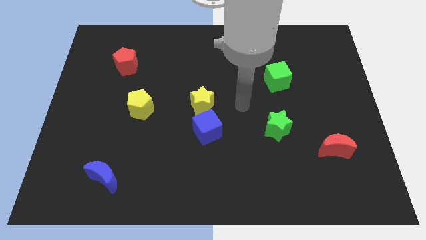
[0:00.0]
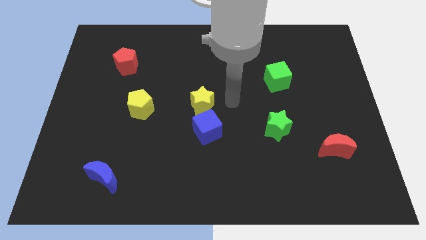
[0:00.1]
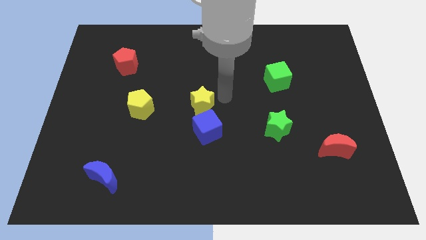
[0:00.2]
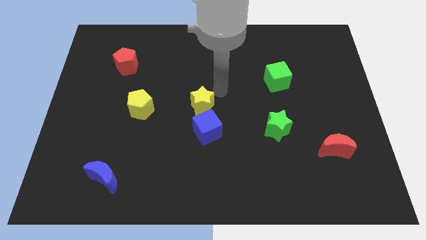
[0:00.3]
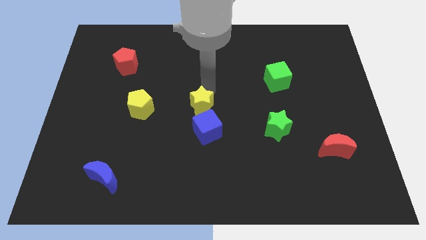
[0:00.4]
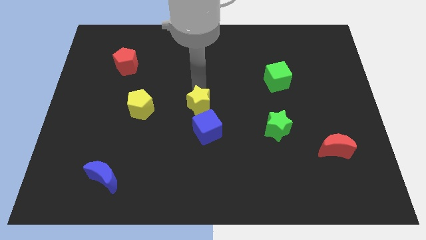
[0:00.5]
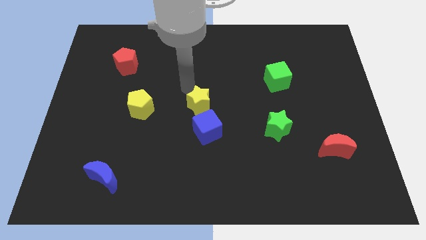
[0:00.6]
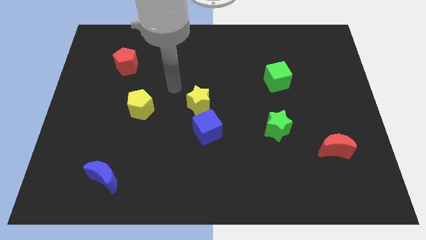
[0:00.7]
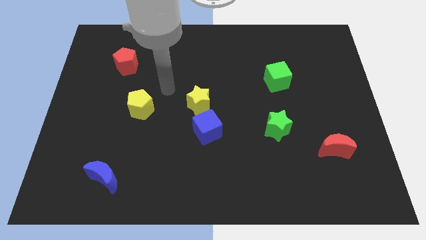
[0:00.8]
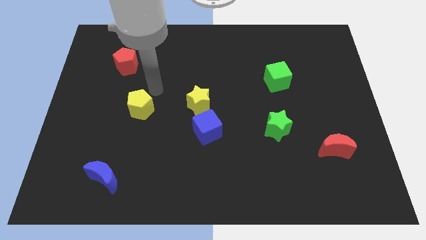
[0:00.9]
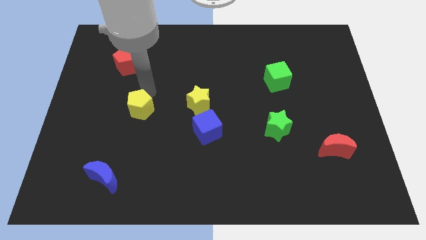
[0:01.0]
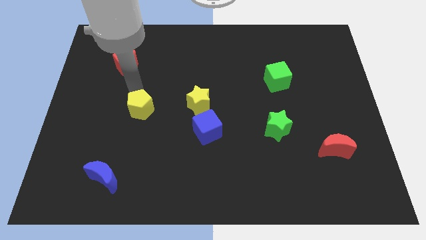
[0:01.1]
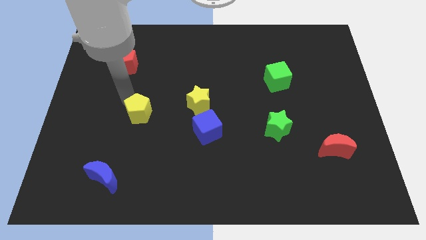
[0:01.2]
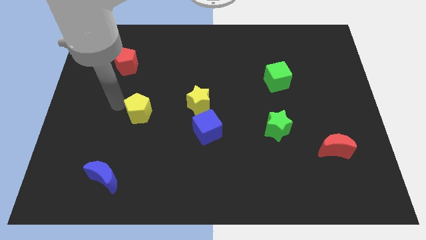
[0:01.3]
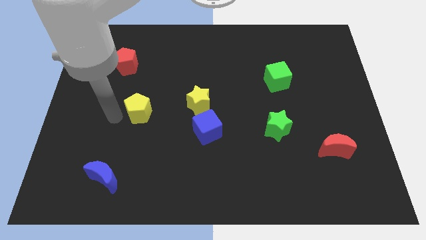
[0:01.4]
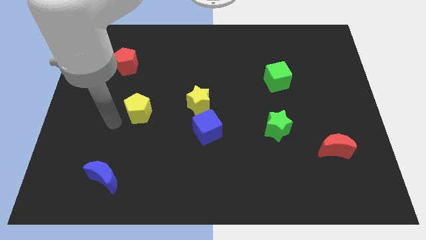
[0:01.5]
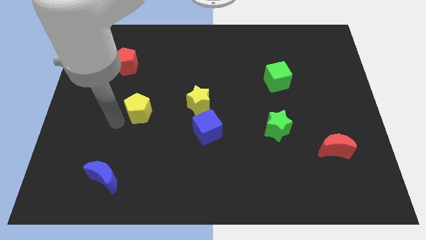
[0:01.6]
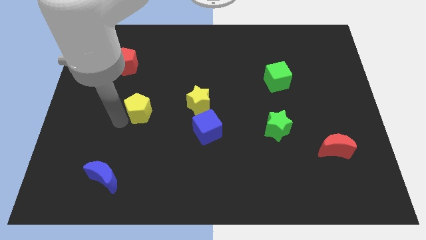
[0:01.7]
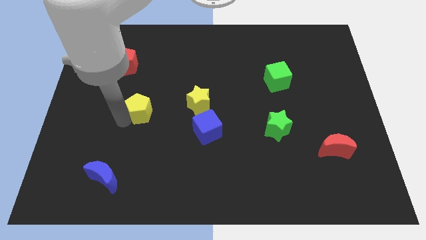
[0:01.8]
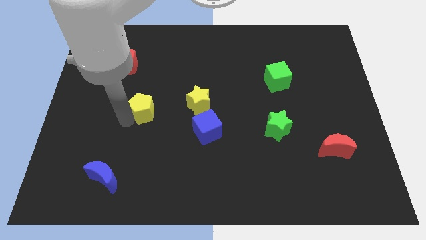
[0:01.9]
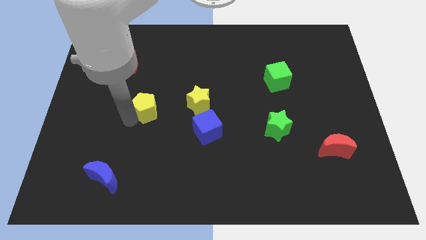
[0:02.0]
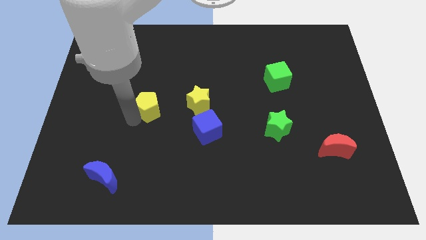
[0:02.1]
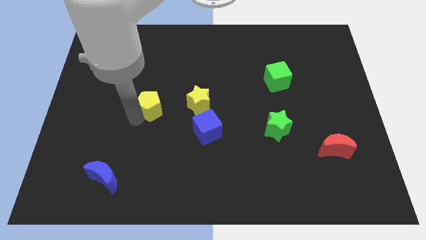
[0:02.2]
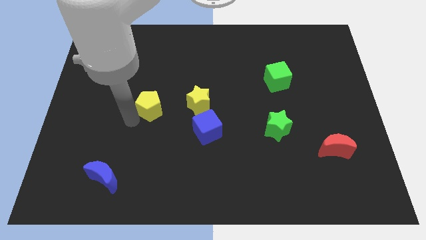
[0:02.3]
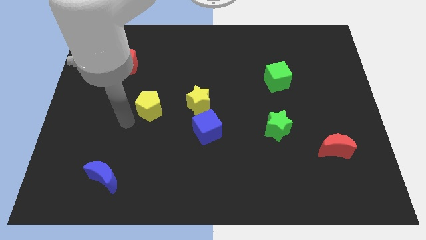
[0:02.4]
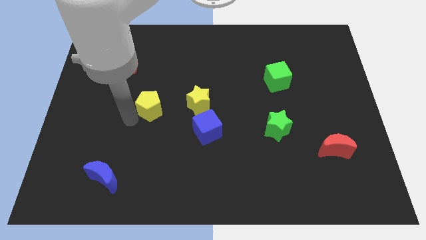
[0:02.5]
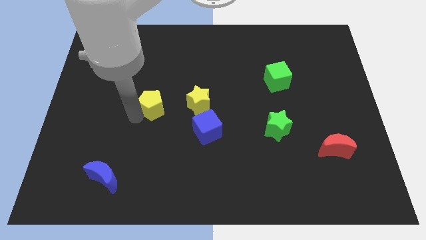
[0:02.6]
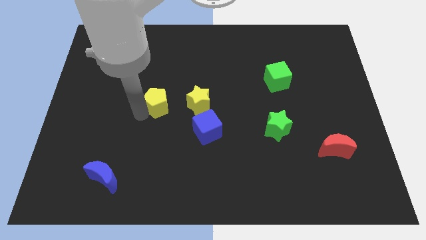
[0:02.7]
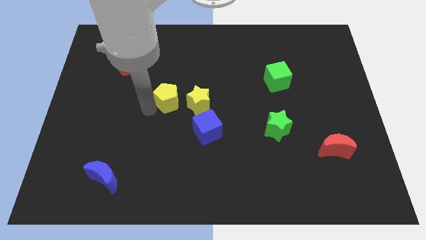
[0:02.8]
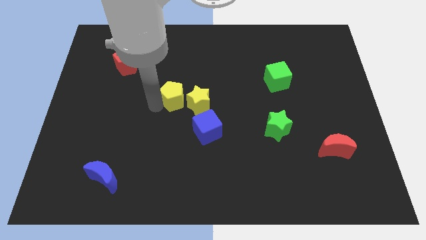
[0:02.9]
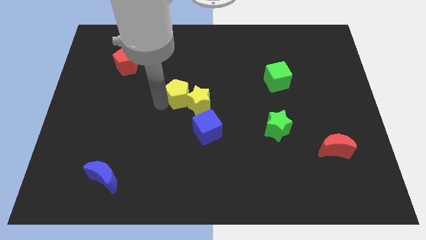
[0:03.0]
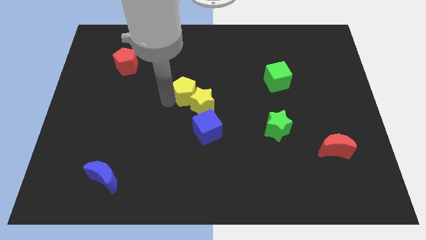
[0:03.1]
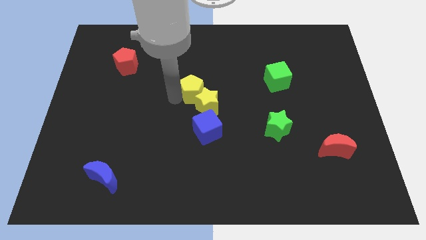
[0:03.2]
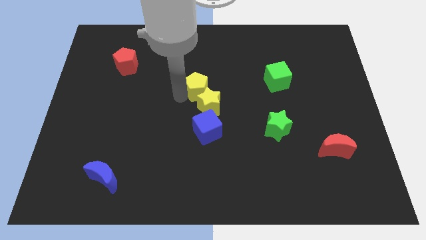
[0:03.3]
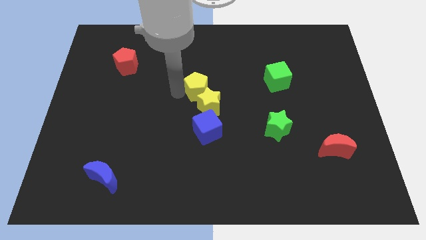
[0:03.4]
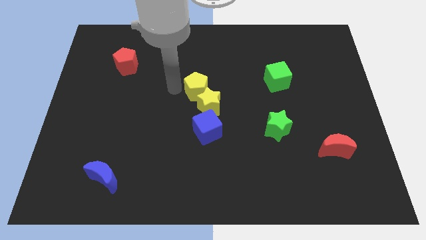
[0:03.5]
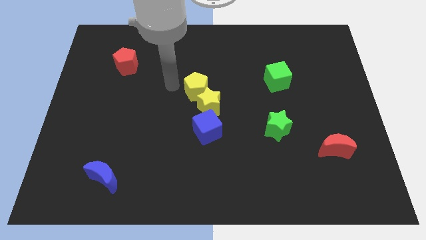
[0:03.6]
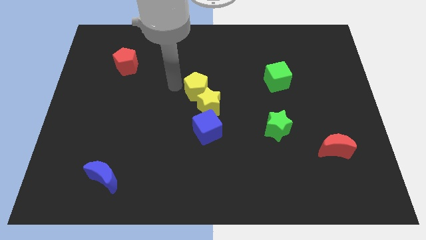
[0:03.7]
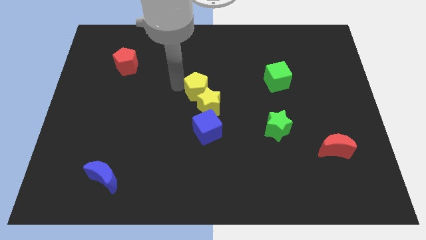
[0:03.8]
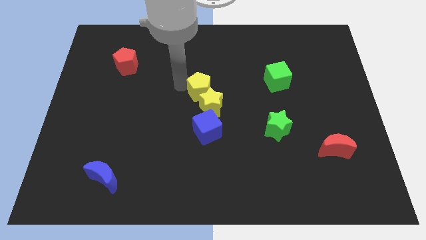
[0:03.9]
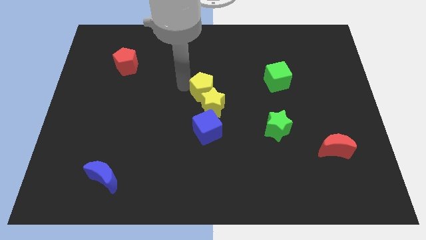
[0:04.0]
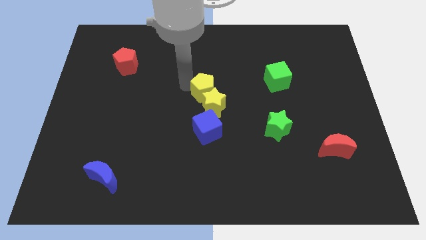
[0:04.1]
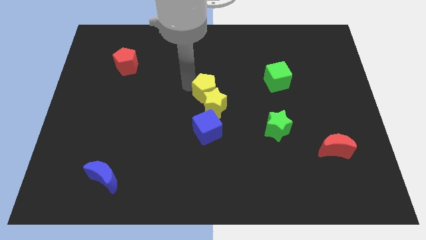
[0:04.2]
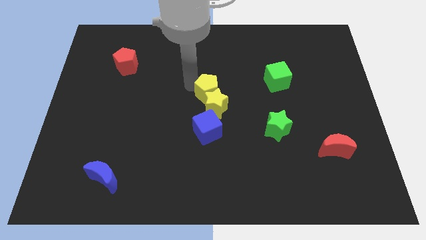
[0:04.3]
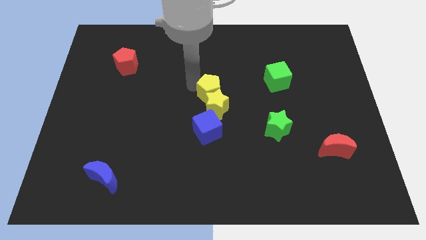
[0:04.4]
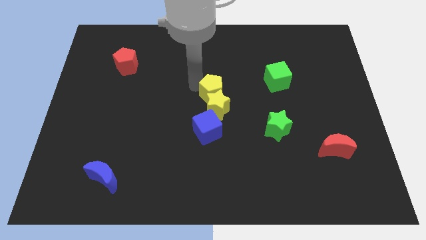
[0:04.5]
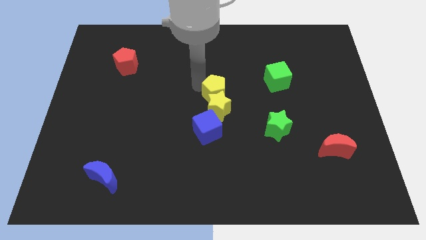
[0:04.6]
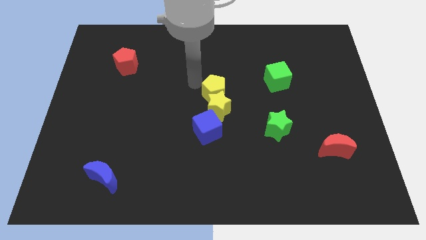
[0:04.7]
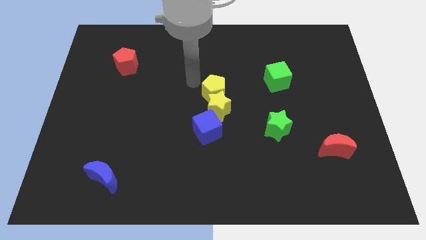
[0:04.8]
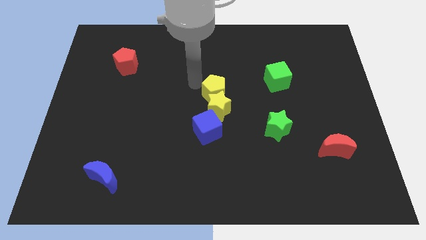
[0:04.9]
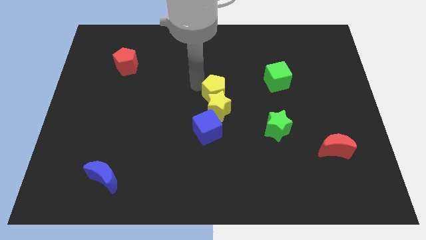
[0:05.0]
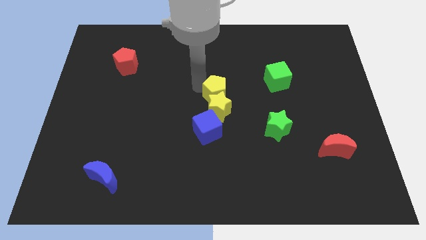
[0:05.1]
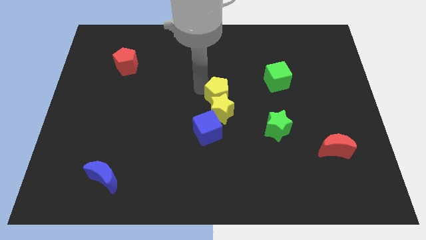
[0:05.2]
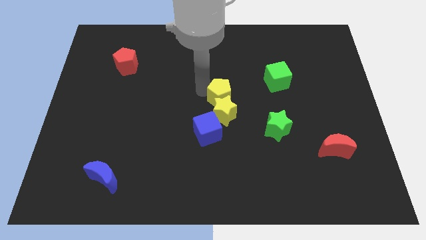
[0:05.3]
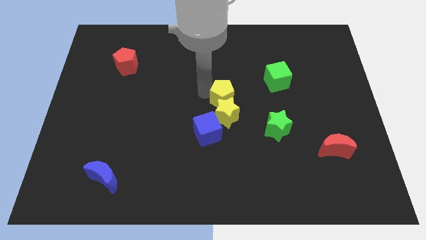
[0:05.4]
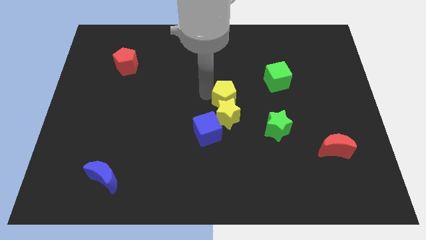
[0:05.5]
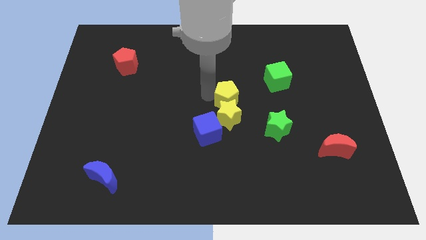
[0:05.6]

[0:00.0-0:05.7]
move the yellow pentagon to the right

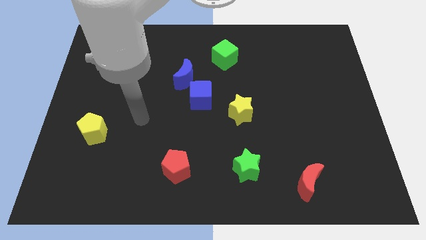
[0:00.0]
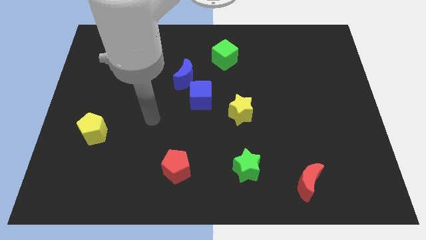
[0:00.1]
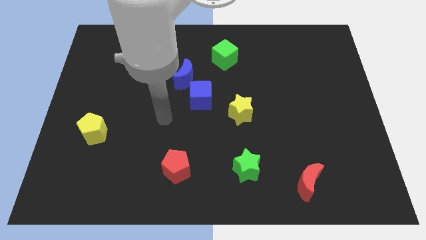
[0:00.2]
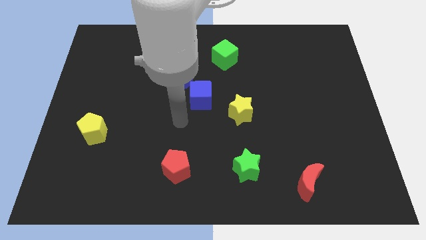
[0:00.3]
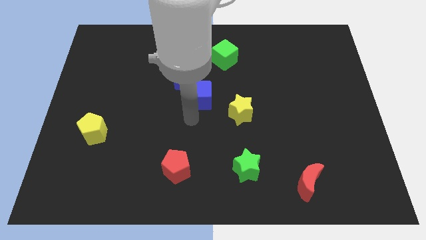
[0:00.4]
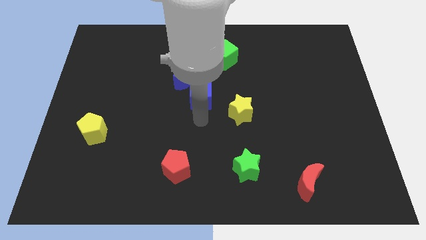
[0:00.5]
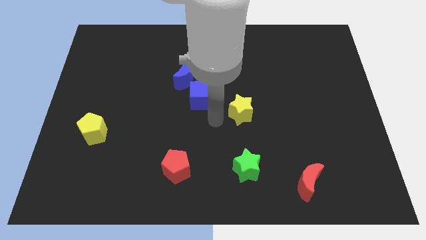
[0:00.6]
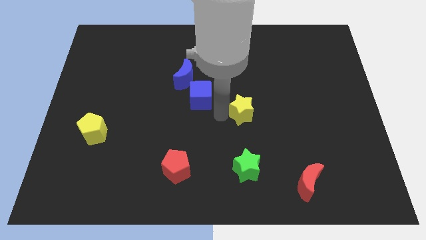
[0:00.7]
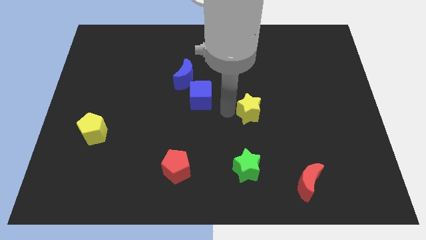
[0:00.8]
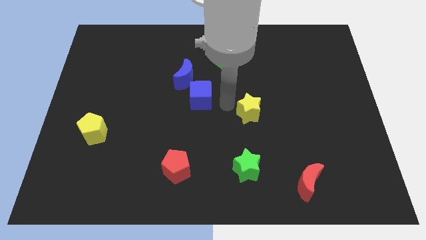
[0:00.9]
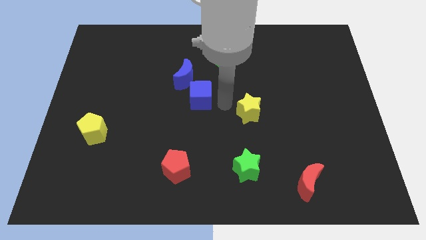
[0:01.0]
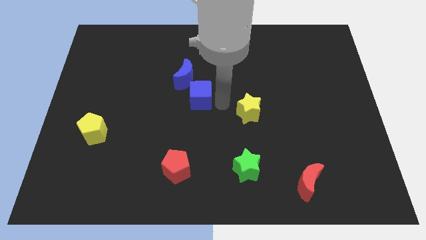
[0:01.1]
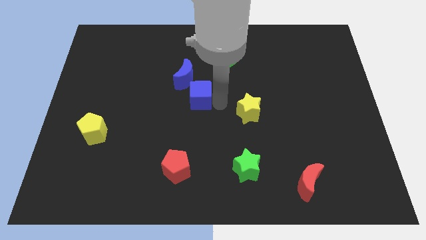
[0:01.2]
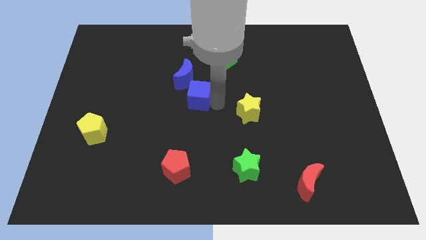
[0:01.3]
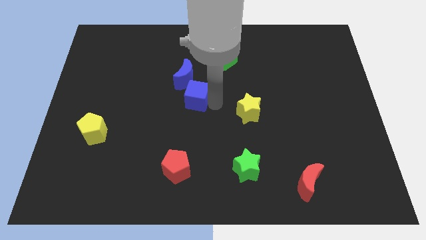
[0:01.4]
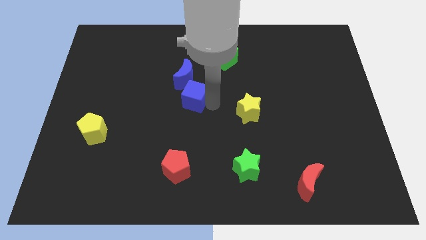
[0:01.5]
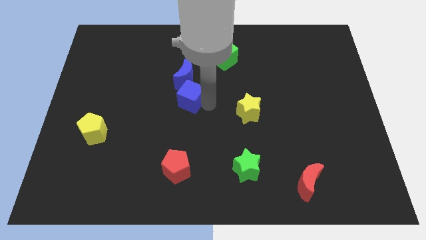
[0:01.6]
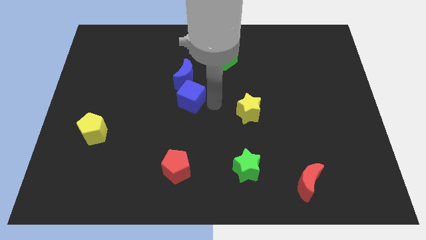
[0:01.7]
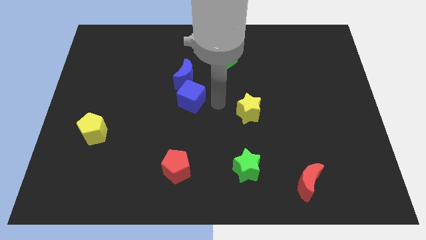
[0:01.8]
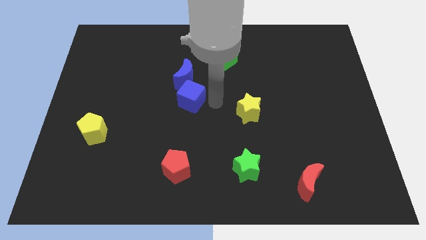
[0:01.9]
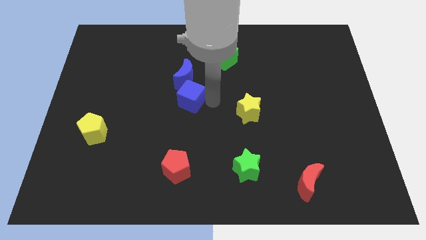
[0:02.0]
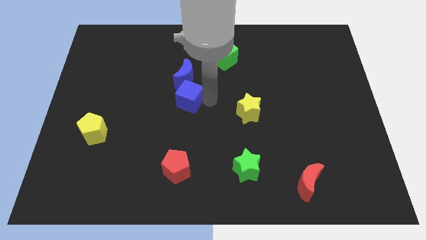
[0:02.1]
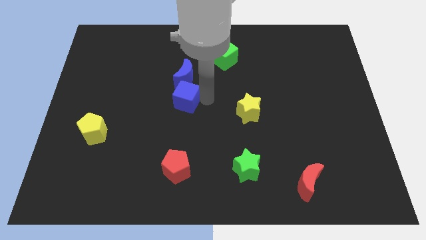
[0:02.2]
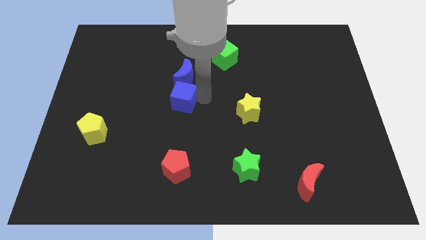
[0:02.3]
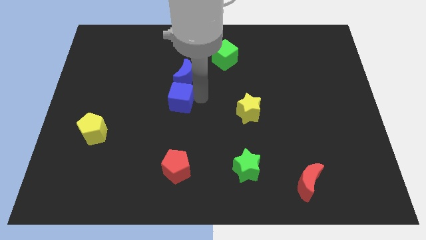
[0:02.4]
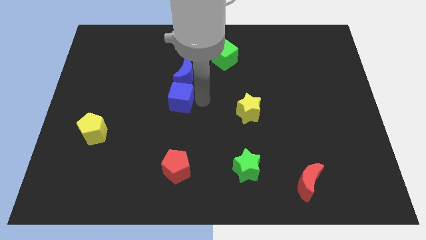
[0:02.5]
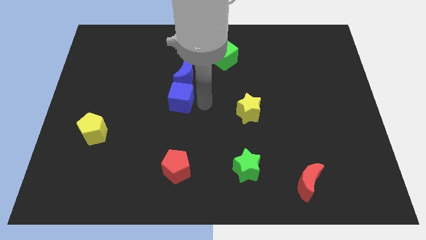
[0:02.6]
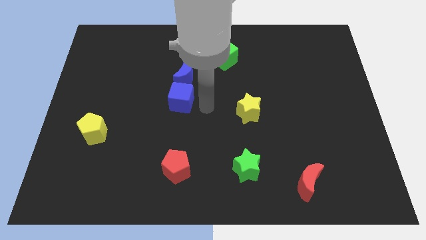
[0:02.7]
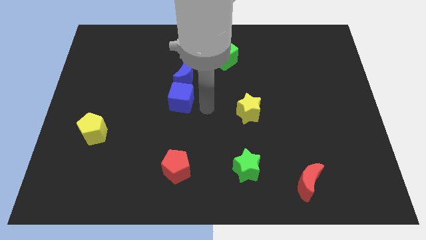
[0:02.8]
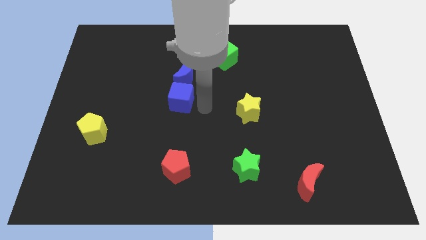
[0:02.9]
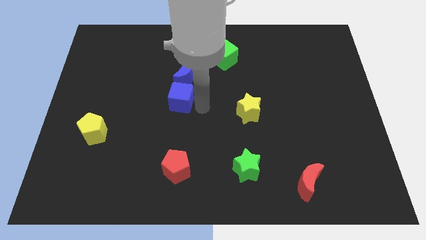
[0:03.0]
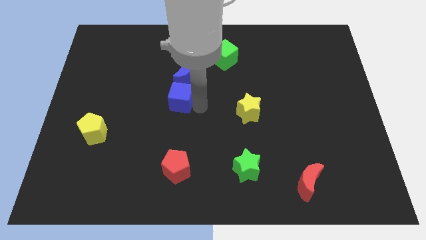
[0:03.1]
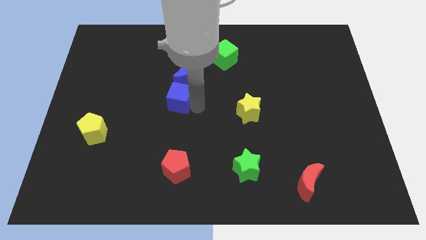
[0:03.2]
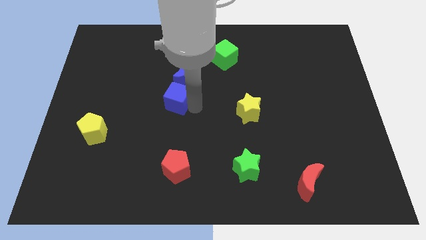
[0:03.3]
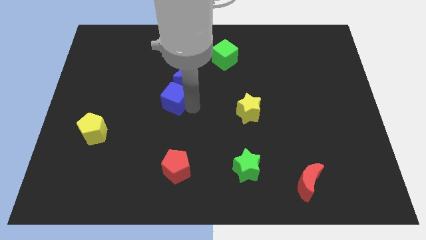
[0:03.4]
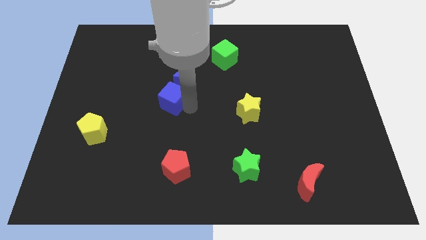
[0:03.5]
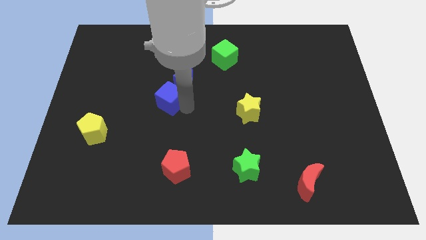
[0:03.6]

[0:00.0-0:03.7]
slightly move the blue cube to the left
